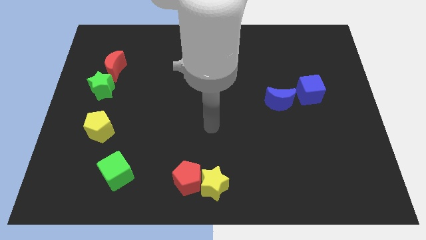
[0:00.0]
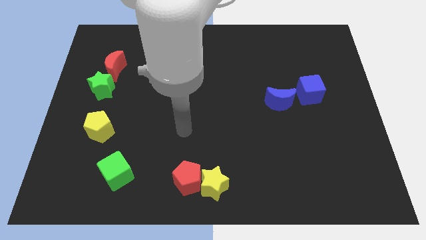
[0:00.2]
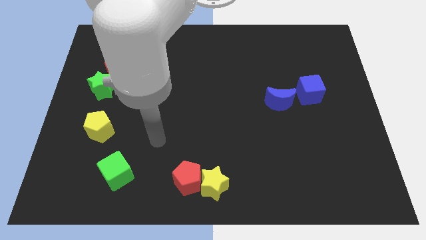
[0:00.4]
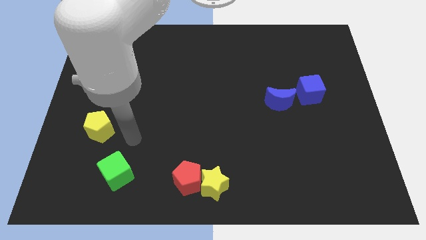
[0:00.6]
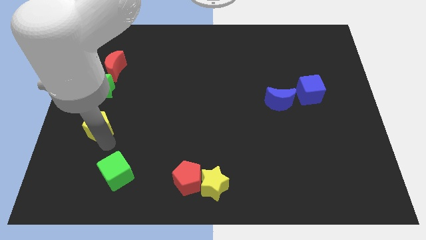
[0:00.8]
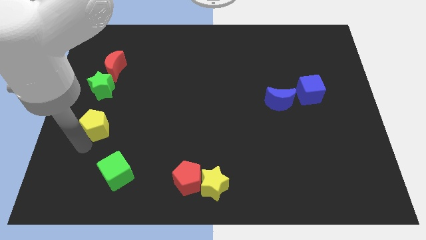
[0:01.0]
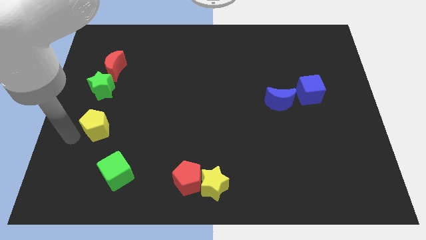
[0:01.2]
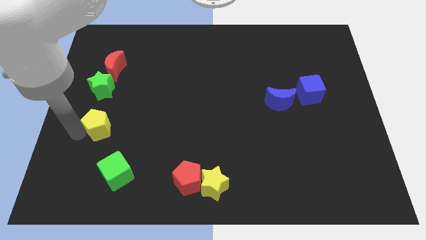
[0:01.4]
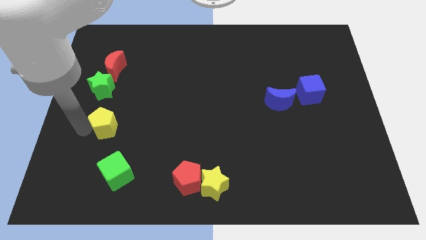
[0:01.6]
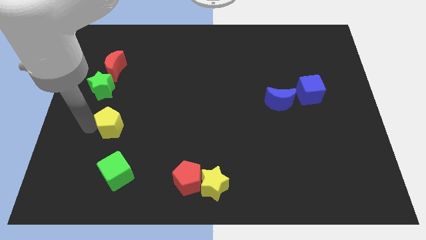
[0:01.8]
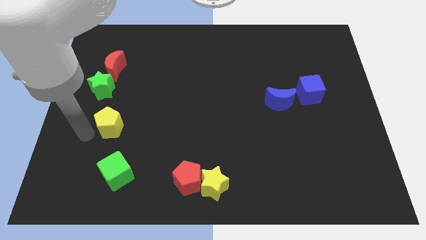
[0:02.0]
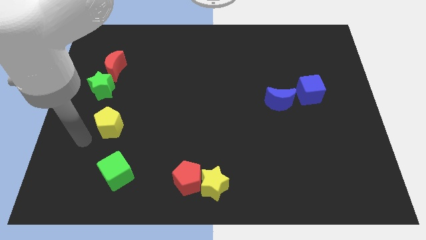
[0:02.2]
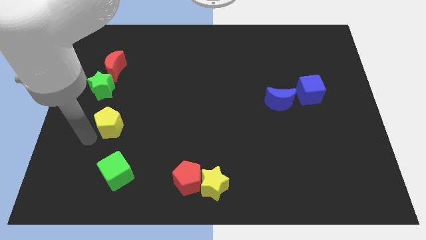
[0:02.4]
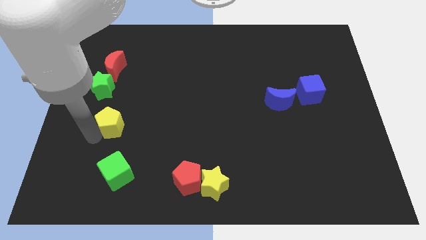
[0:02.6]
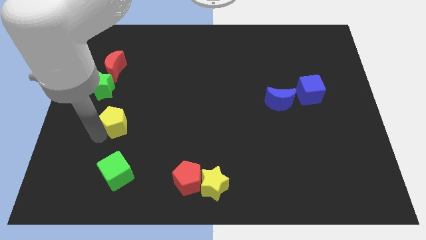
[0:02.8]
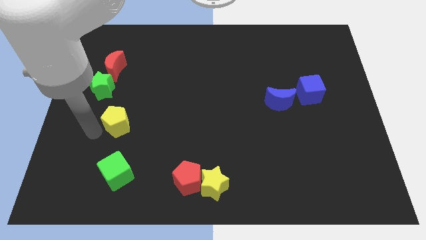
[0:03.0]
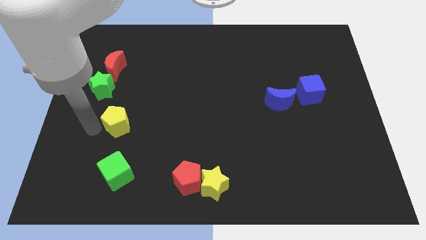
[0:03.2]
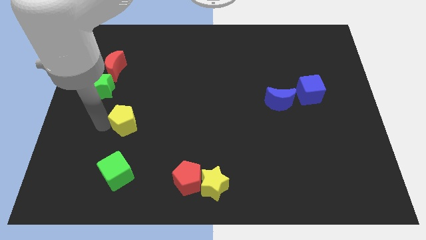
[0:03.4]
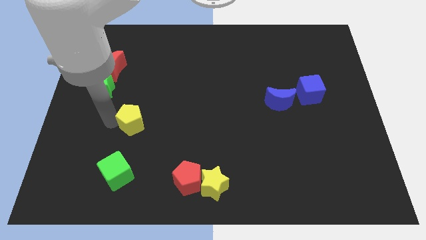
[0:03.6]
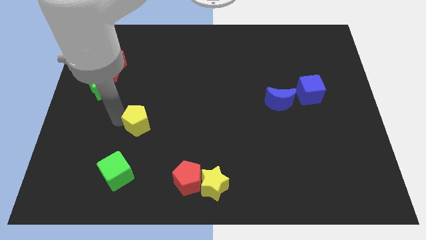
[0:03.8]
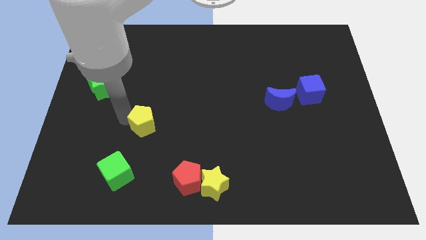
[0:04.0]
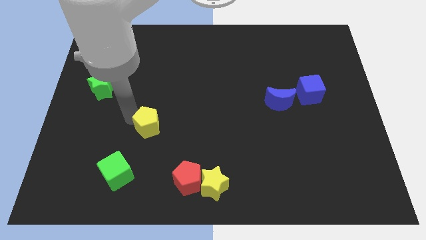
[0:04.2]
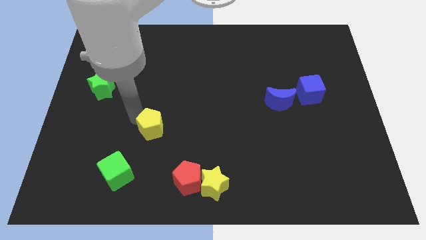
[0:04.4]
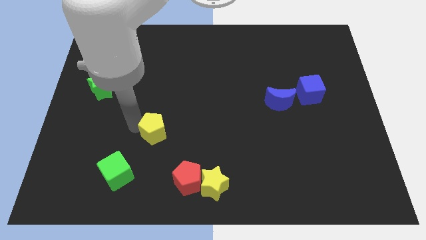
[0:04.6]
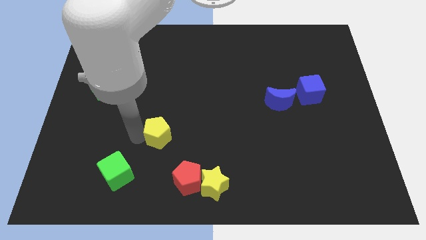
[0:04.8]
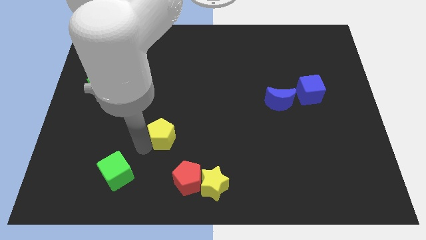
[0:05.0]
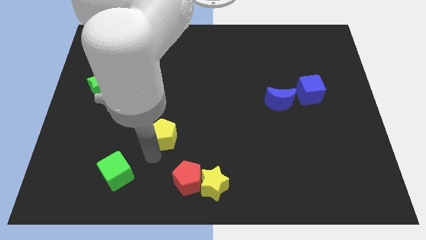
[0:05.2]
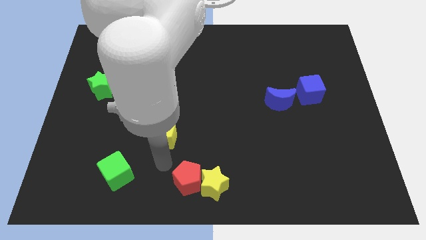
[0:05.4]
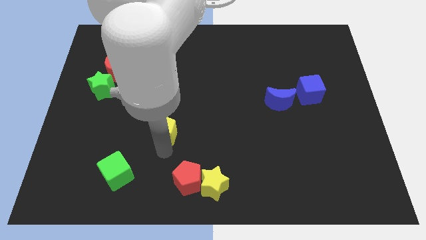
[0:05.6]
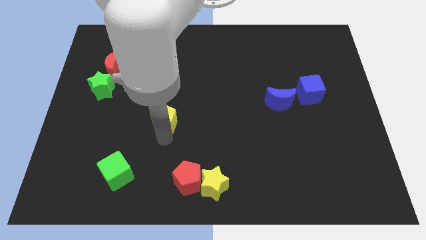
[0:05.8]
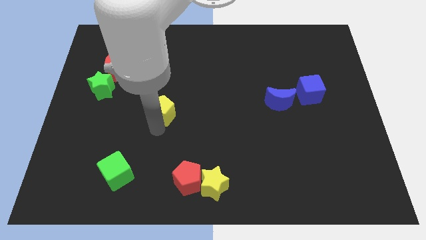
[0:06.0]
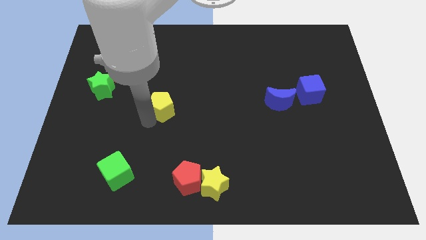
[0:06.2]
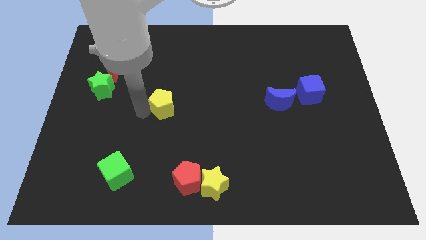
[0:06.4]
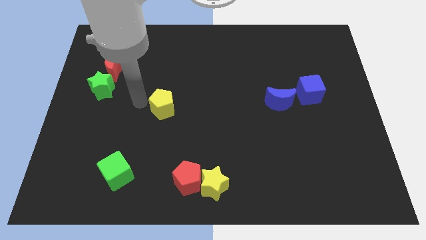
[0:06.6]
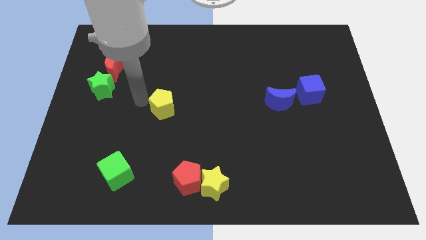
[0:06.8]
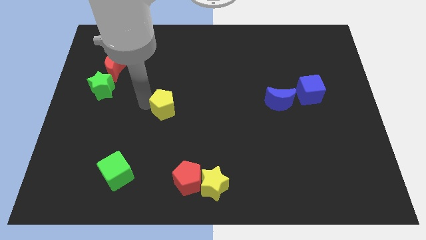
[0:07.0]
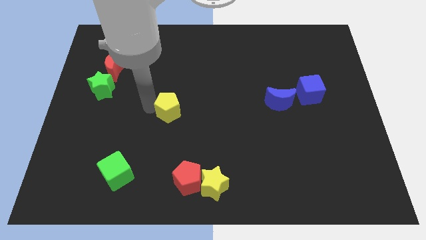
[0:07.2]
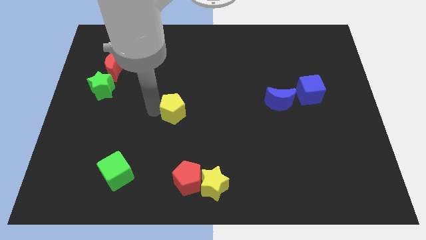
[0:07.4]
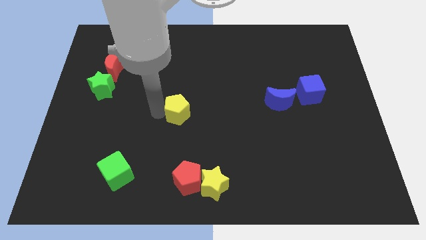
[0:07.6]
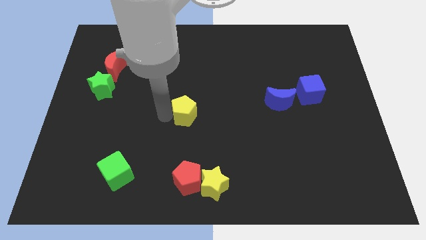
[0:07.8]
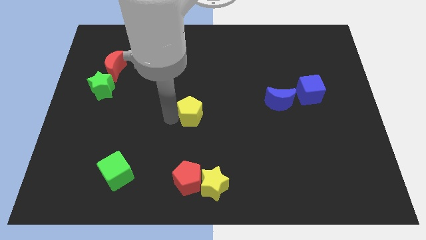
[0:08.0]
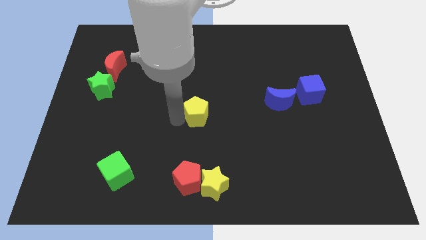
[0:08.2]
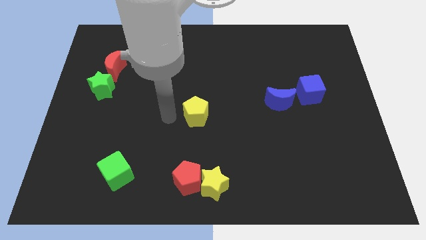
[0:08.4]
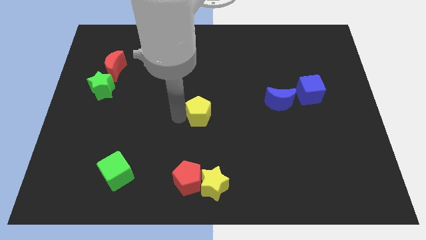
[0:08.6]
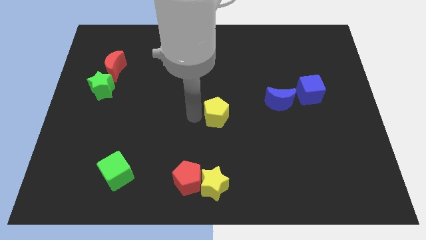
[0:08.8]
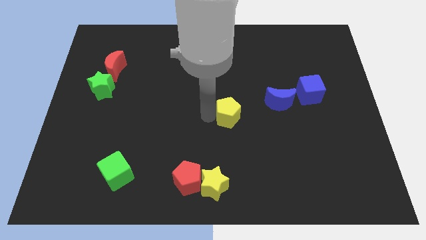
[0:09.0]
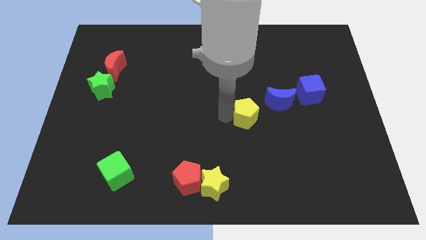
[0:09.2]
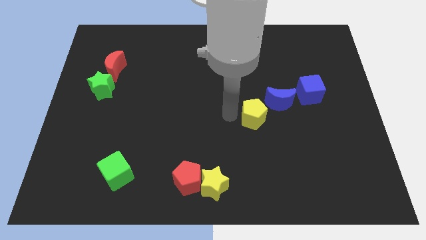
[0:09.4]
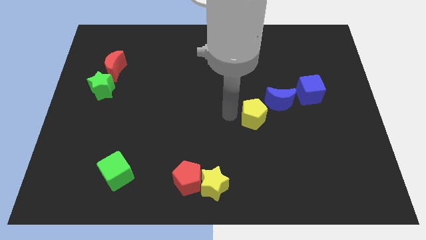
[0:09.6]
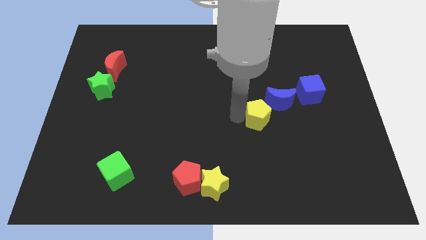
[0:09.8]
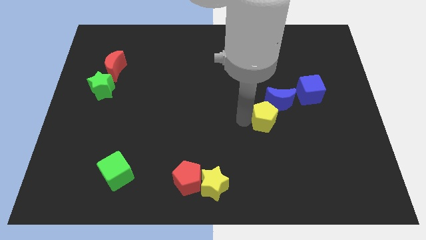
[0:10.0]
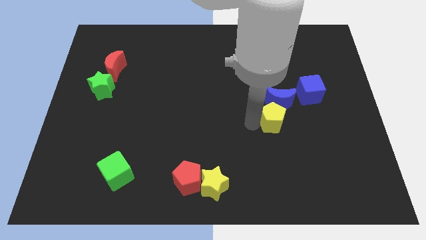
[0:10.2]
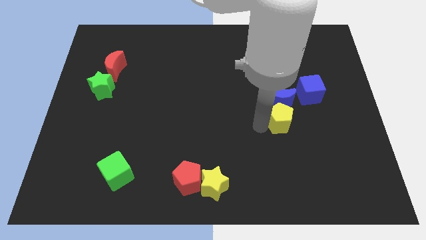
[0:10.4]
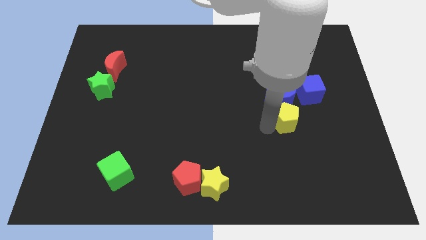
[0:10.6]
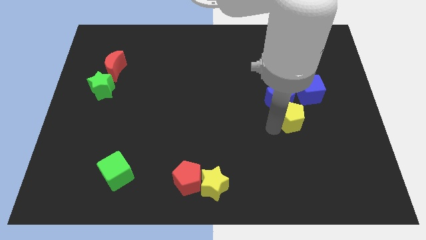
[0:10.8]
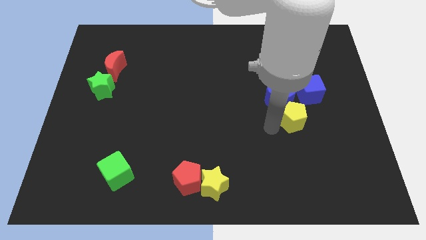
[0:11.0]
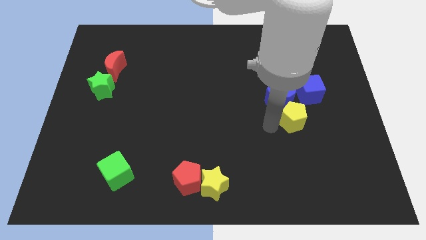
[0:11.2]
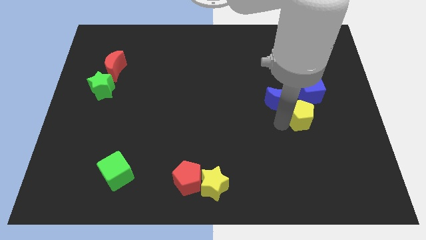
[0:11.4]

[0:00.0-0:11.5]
put the yellow pentagon just right of the blue moon
